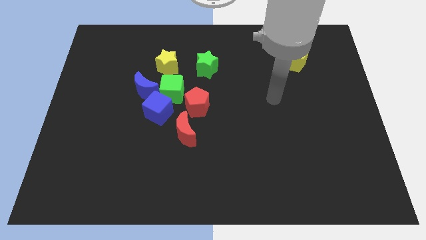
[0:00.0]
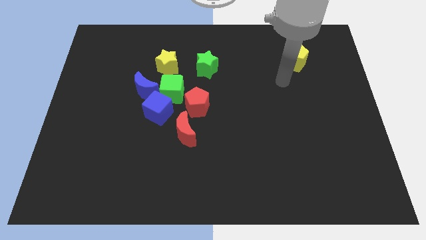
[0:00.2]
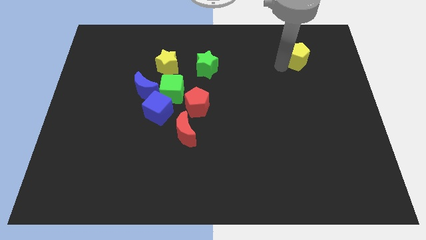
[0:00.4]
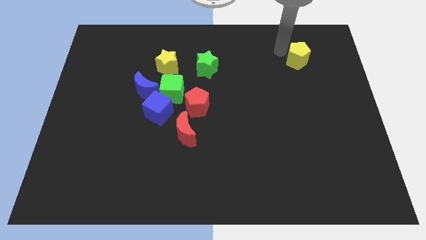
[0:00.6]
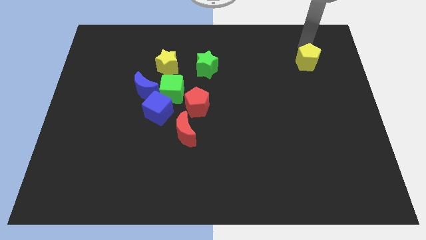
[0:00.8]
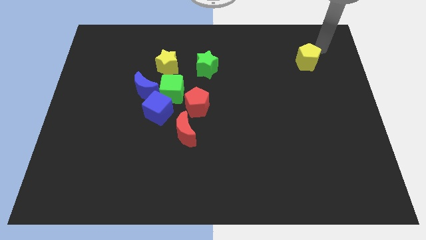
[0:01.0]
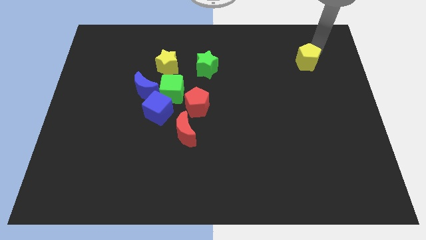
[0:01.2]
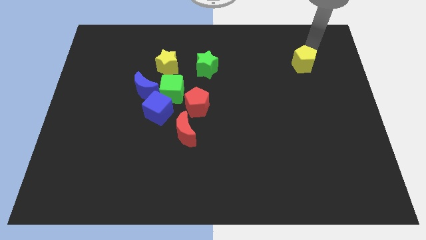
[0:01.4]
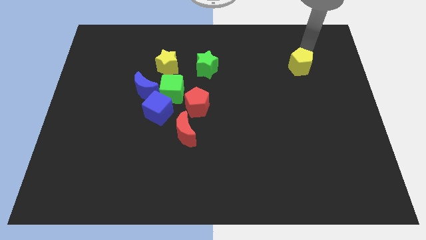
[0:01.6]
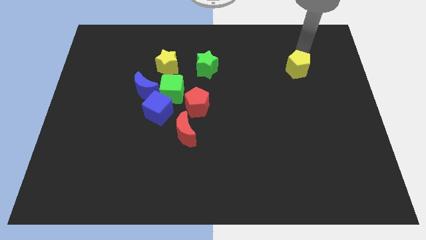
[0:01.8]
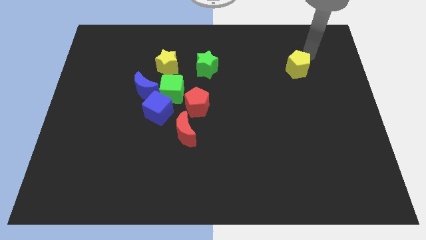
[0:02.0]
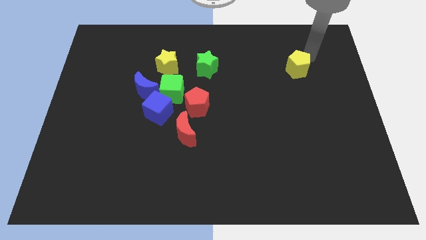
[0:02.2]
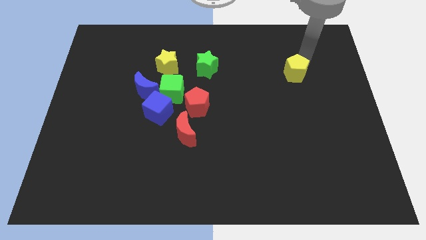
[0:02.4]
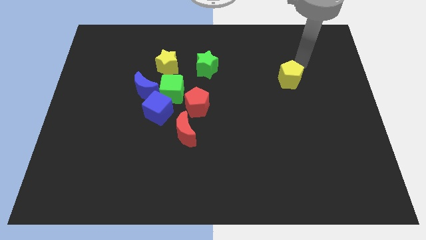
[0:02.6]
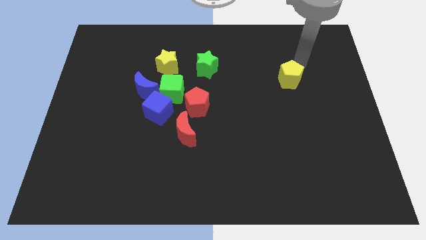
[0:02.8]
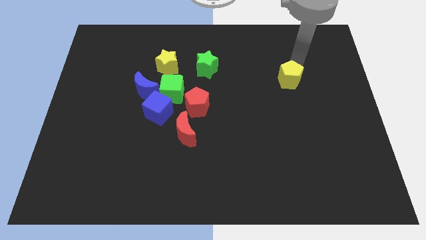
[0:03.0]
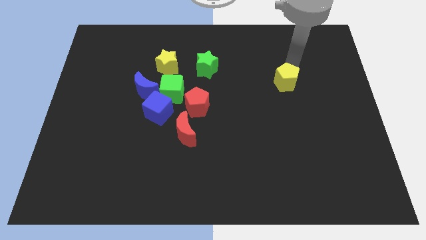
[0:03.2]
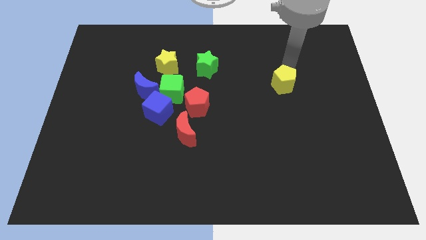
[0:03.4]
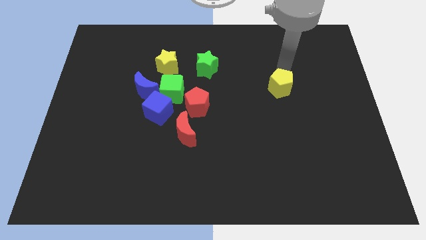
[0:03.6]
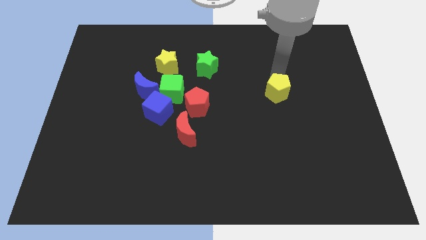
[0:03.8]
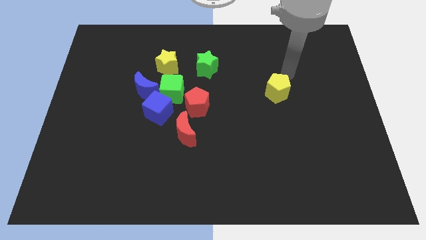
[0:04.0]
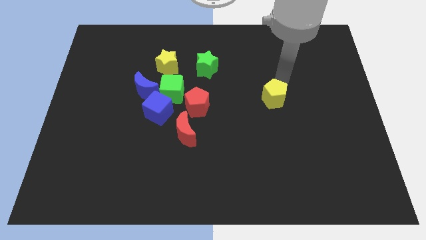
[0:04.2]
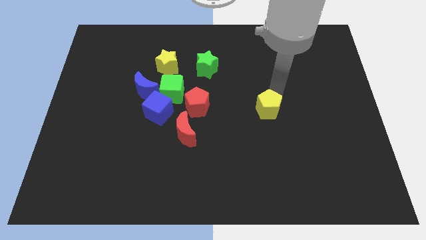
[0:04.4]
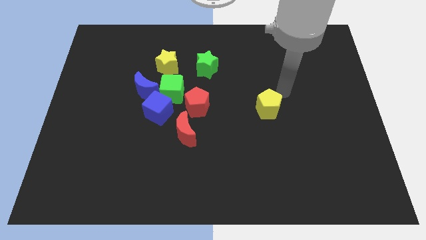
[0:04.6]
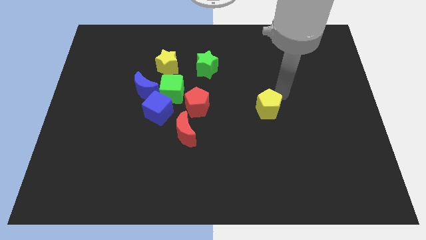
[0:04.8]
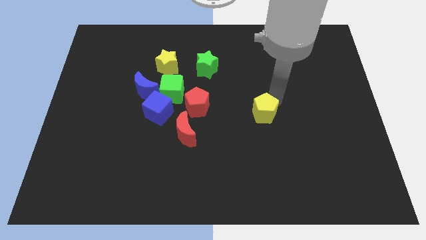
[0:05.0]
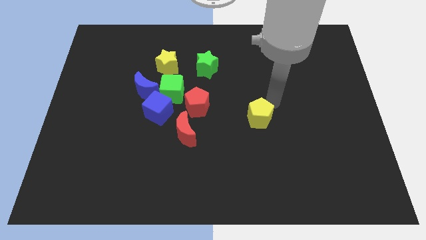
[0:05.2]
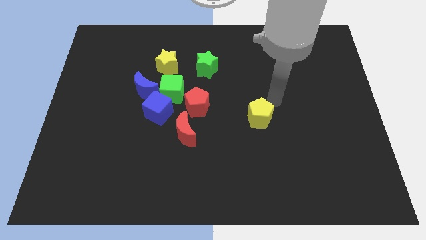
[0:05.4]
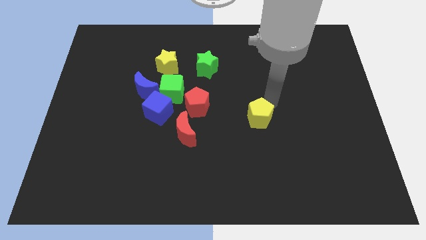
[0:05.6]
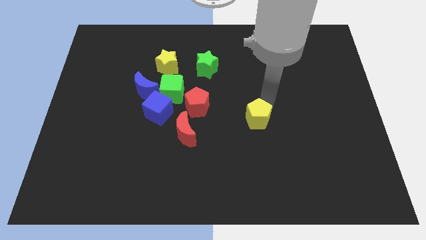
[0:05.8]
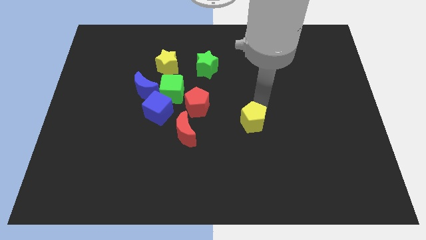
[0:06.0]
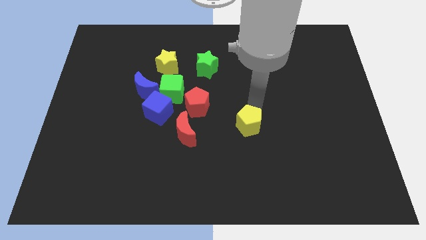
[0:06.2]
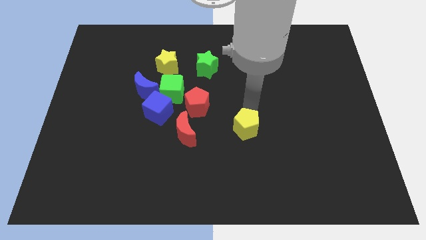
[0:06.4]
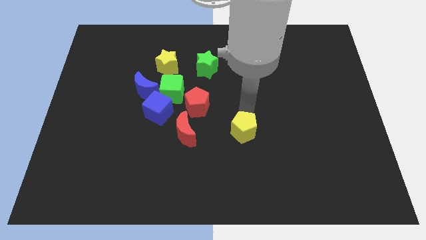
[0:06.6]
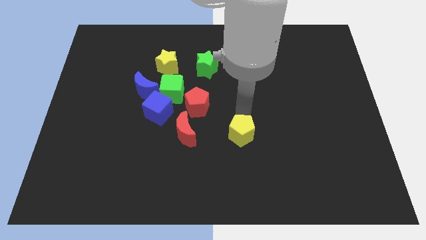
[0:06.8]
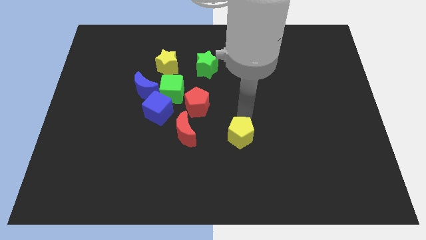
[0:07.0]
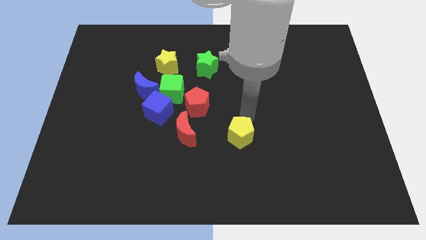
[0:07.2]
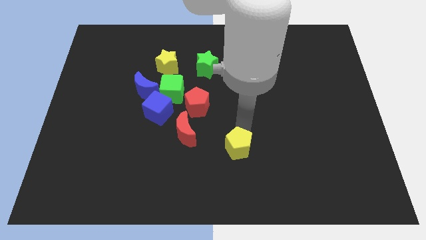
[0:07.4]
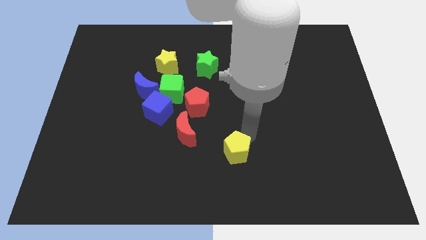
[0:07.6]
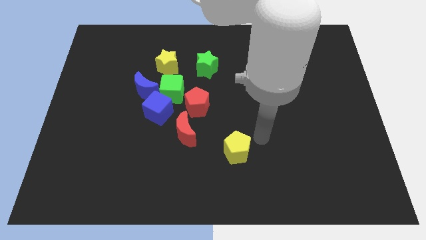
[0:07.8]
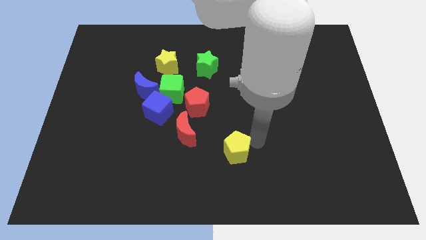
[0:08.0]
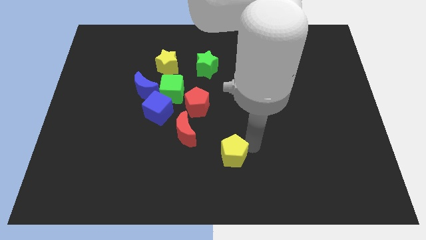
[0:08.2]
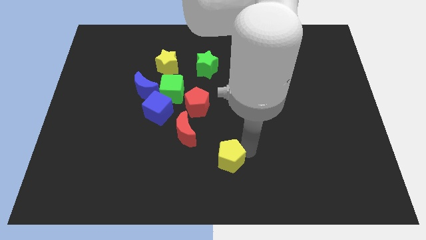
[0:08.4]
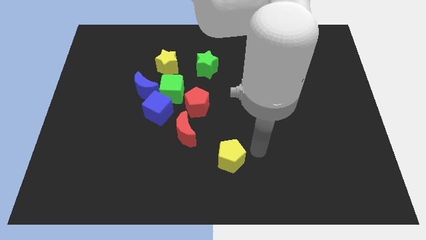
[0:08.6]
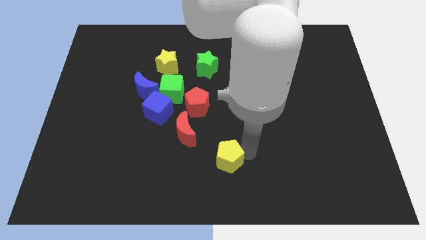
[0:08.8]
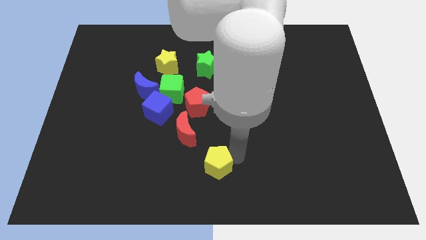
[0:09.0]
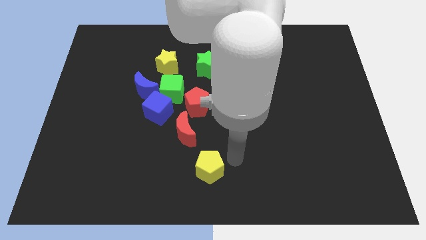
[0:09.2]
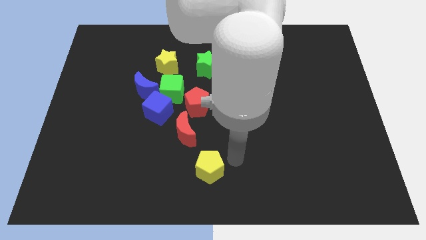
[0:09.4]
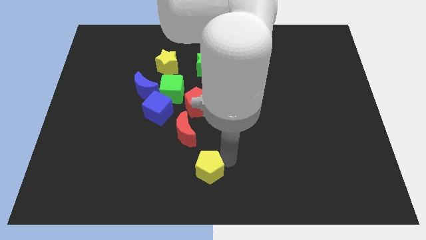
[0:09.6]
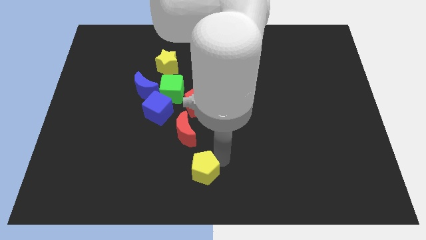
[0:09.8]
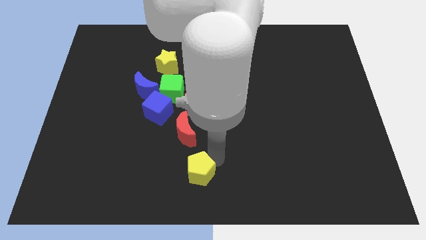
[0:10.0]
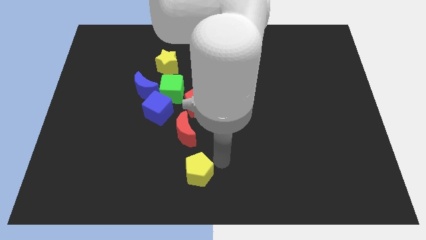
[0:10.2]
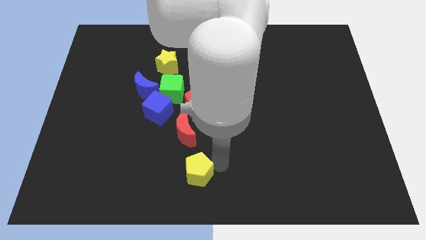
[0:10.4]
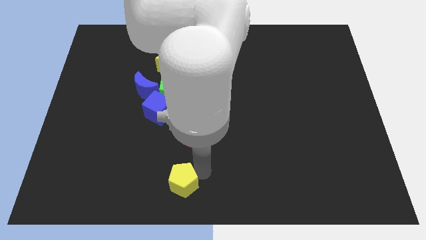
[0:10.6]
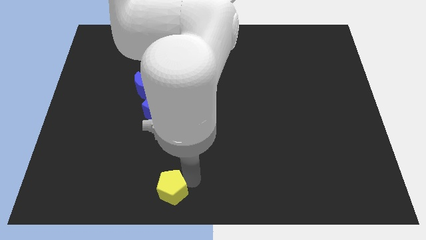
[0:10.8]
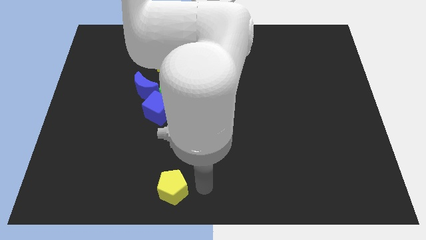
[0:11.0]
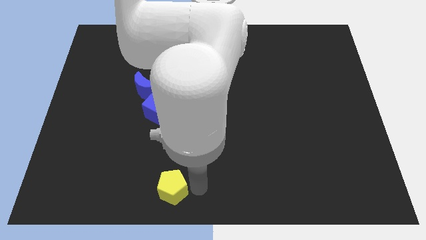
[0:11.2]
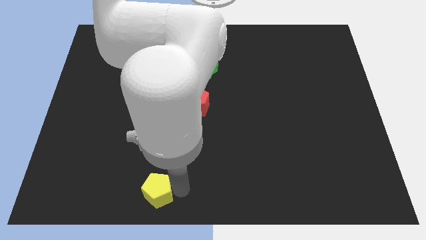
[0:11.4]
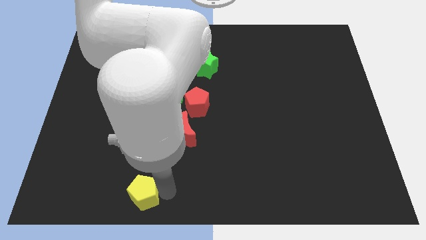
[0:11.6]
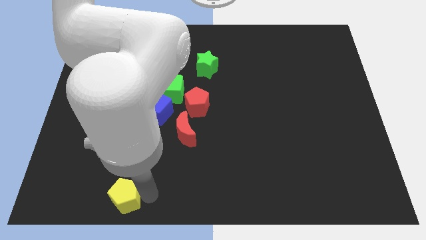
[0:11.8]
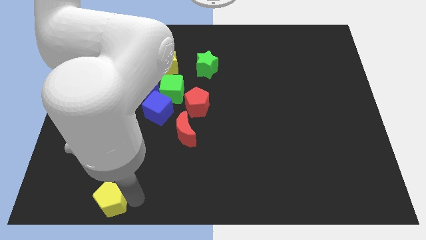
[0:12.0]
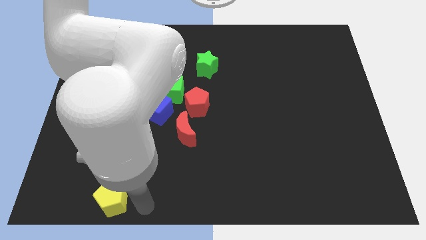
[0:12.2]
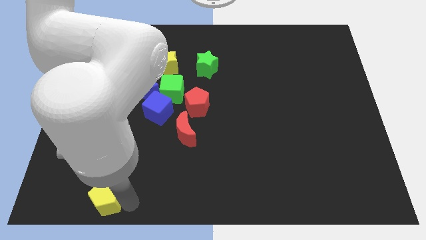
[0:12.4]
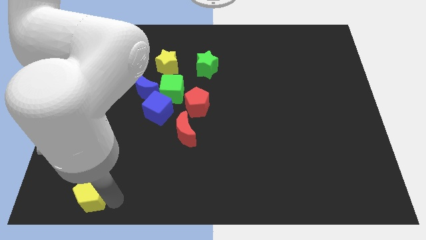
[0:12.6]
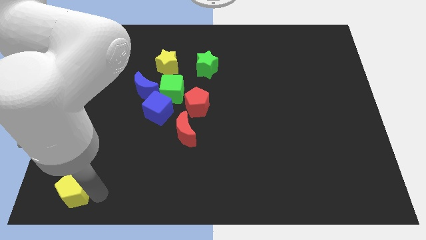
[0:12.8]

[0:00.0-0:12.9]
slide the yellow pentagon to the bottom left corner
